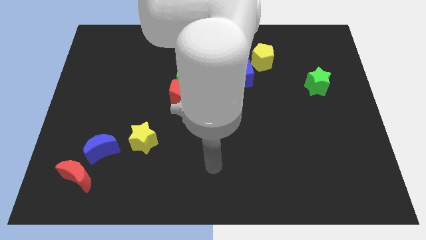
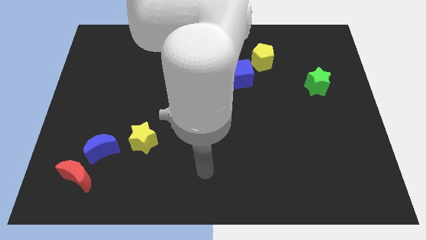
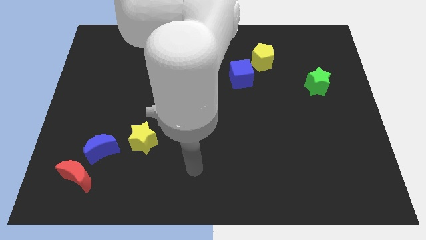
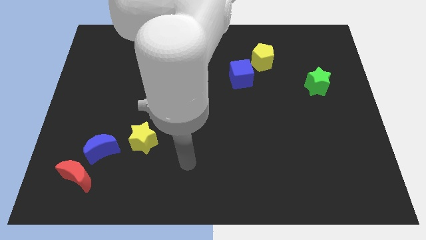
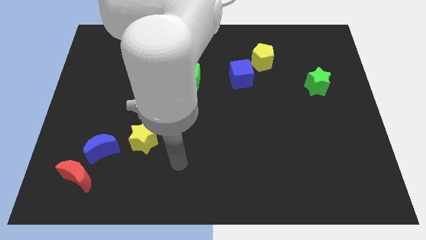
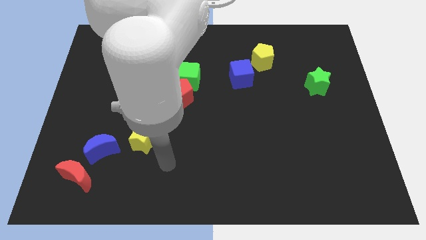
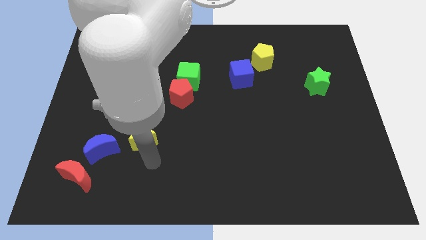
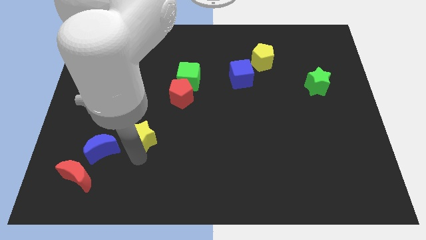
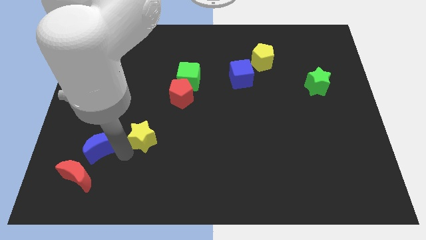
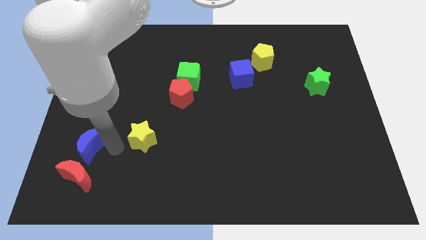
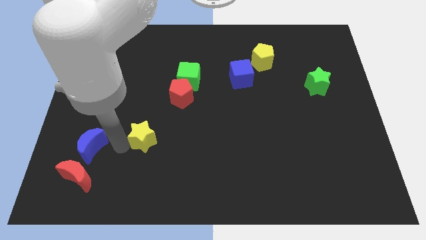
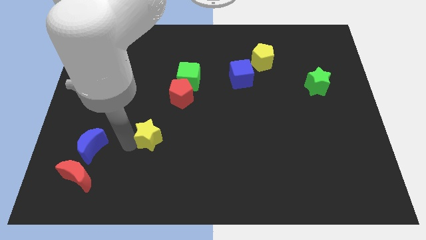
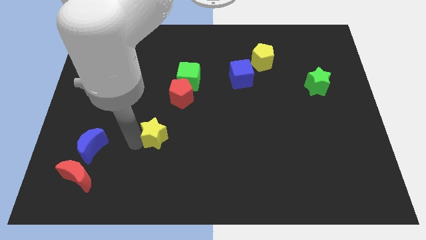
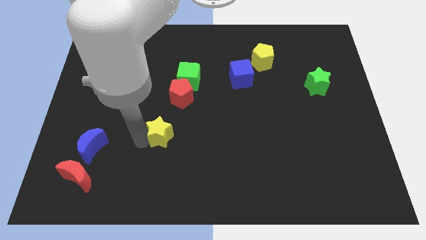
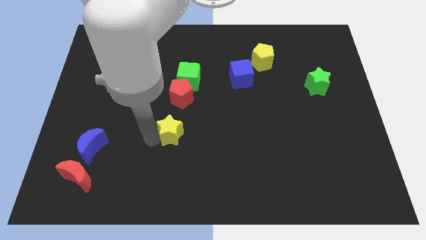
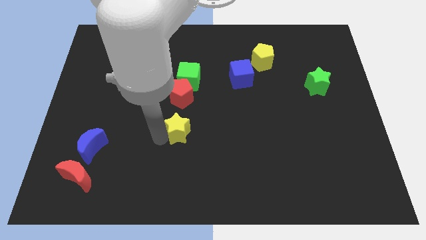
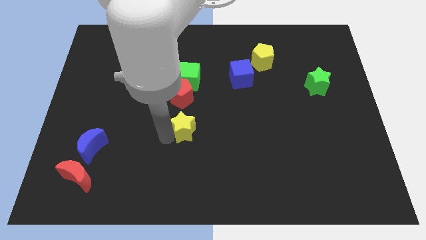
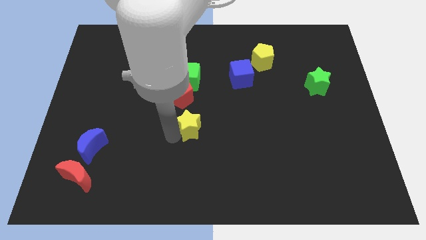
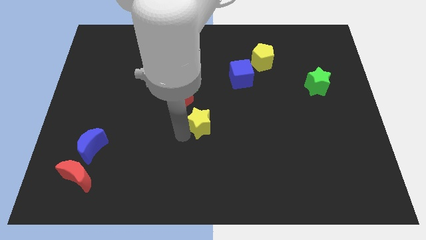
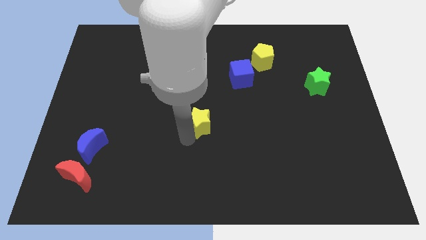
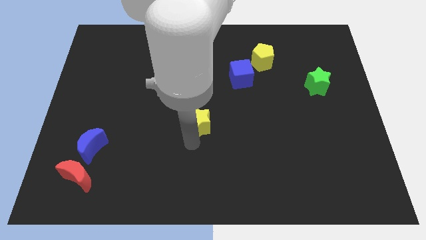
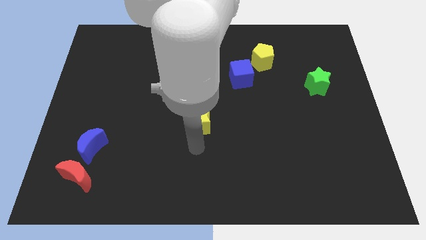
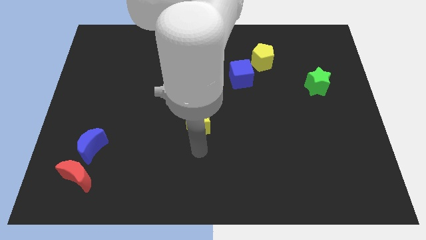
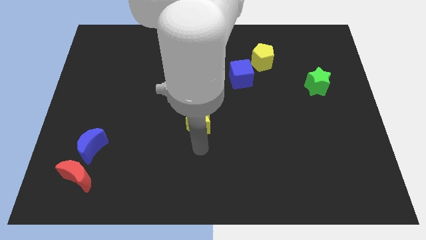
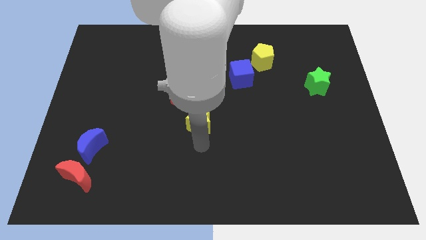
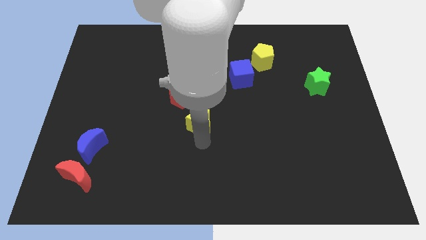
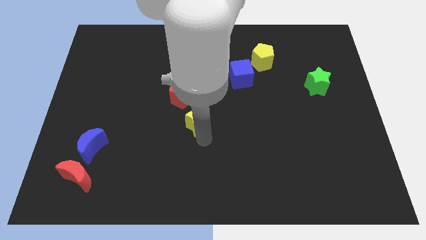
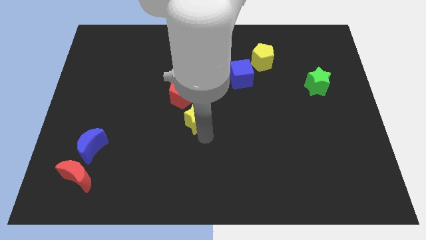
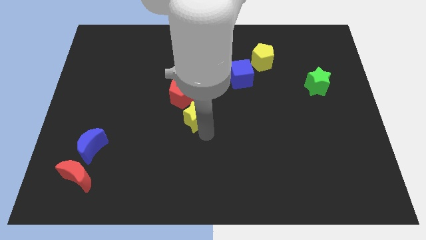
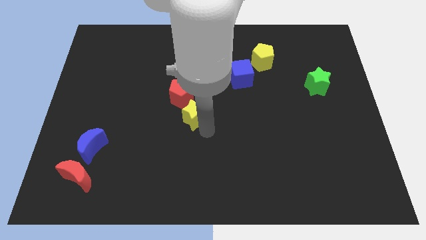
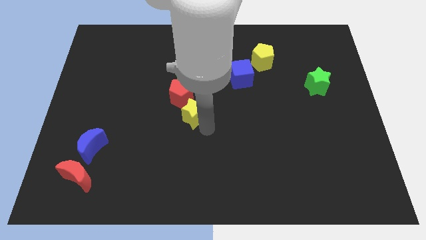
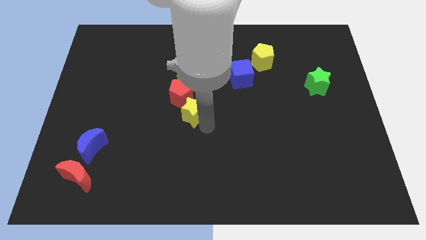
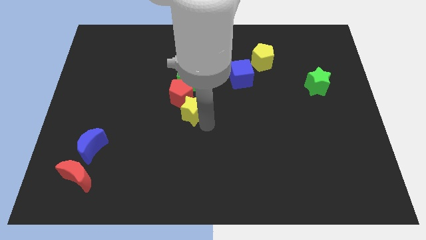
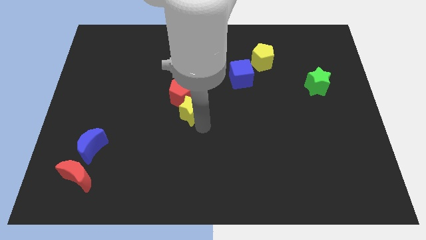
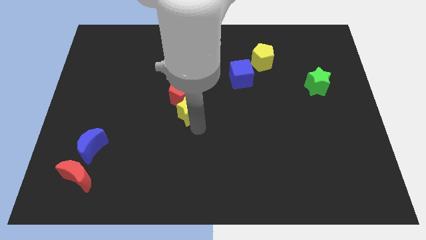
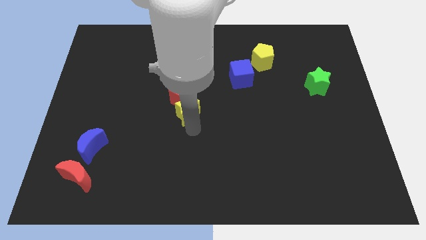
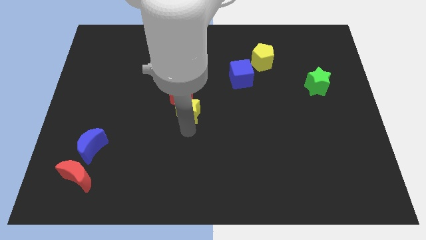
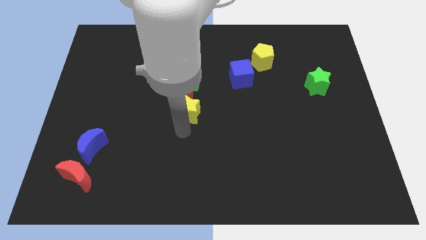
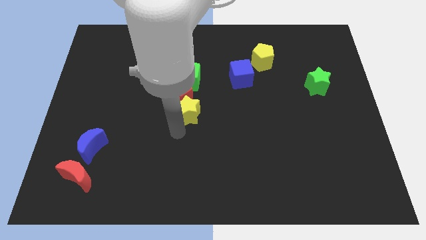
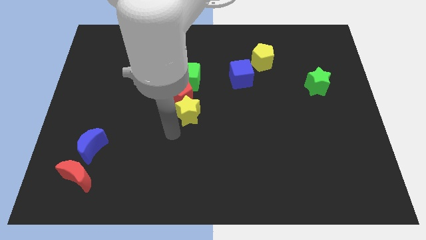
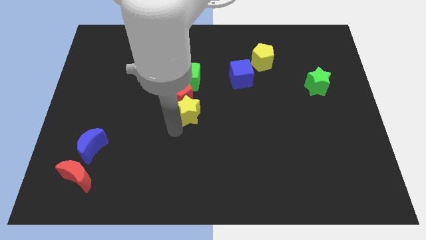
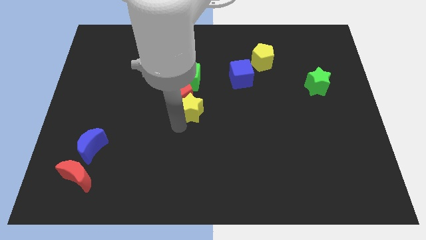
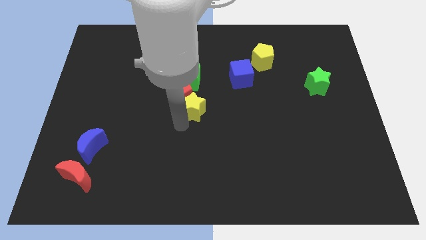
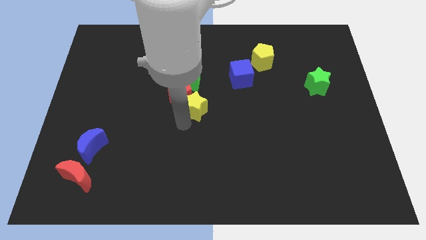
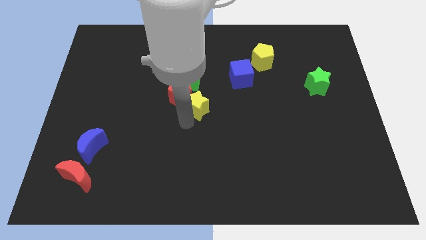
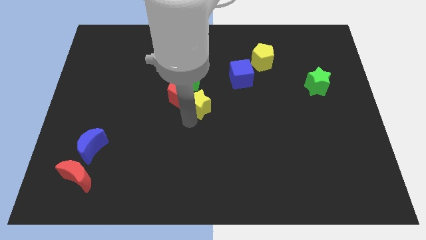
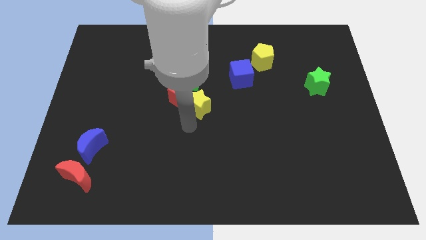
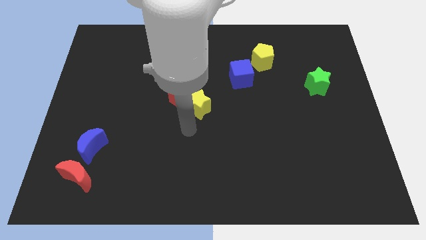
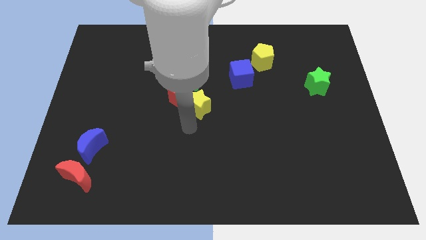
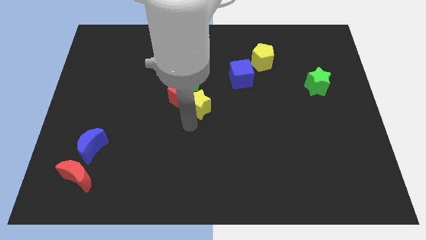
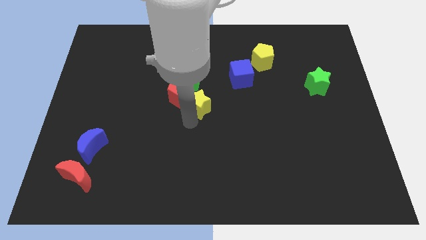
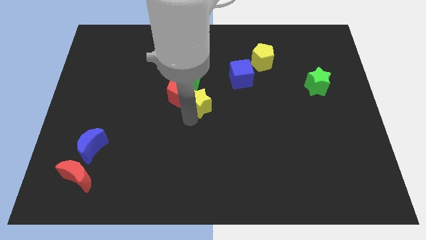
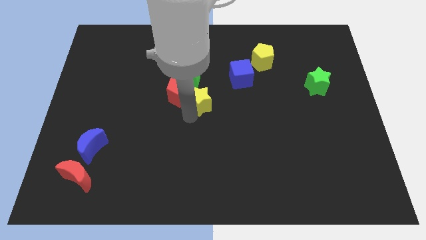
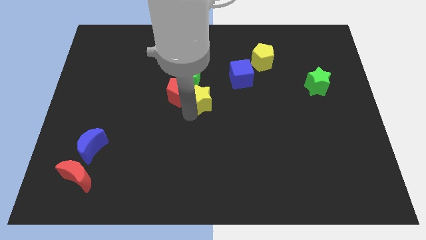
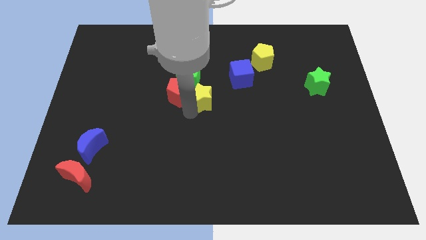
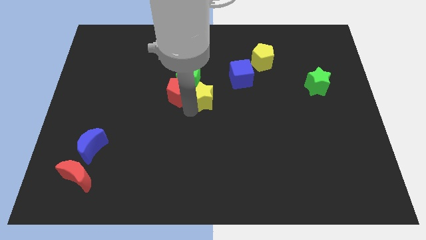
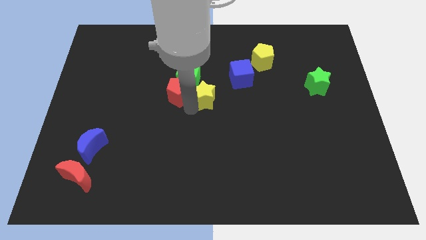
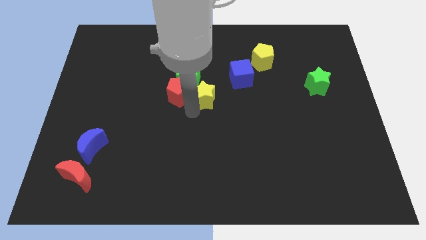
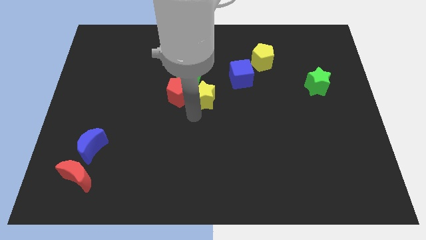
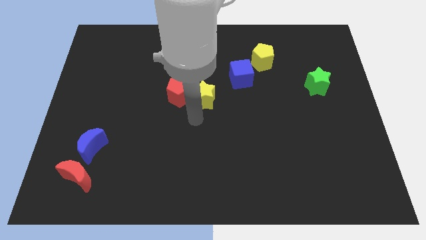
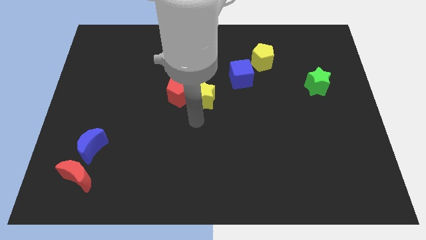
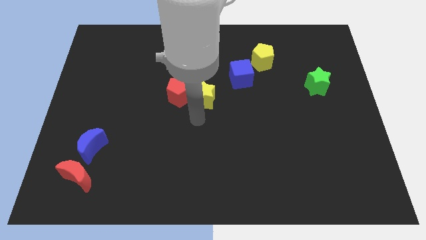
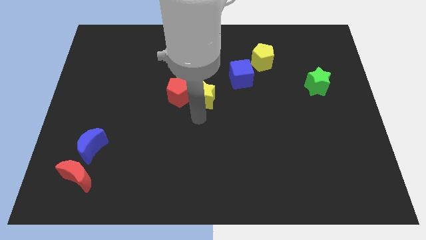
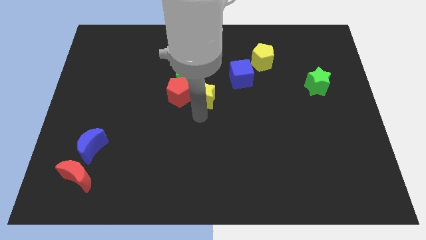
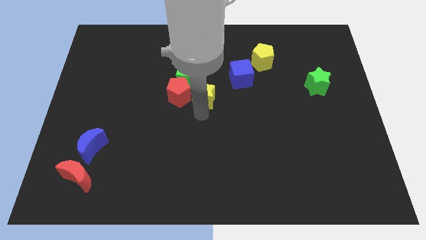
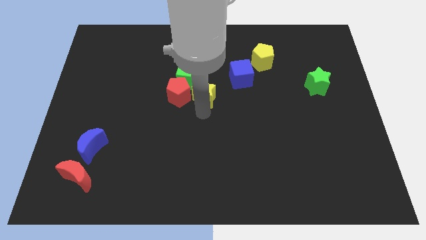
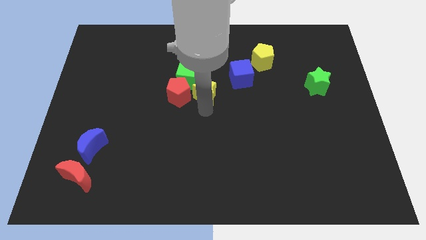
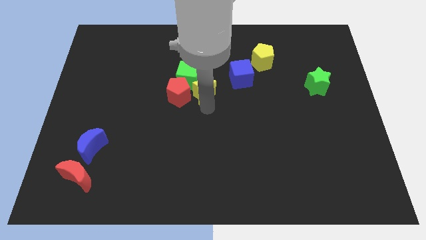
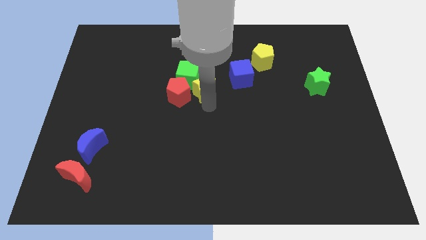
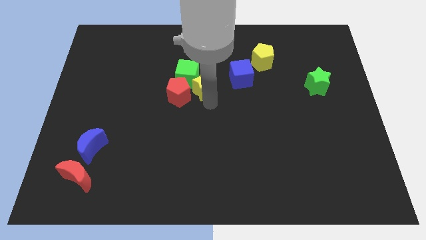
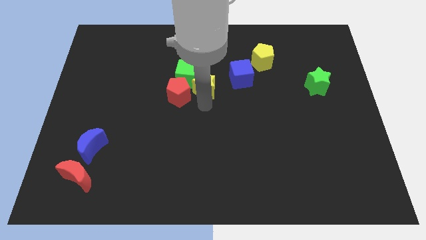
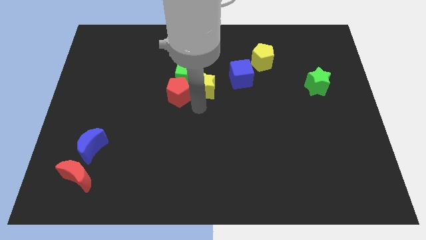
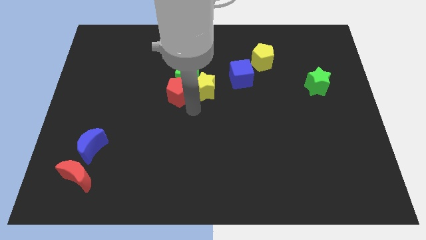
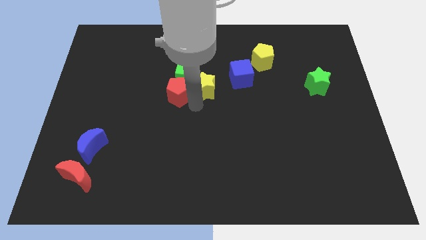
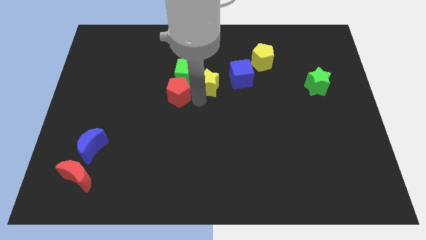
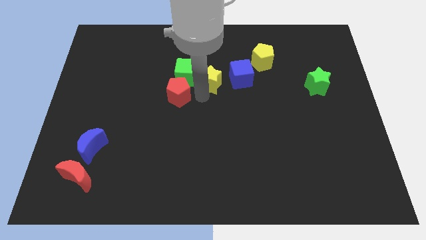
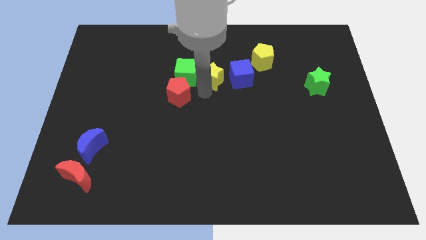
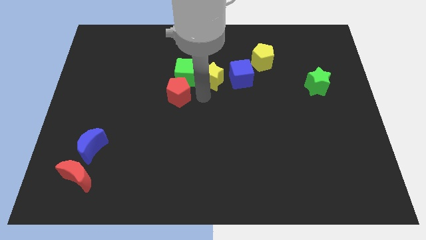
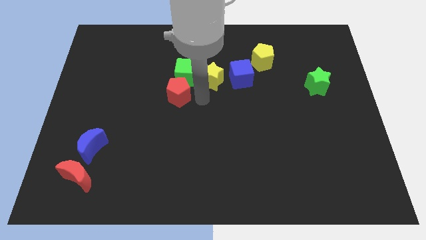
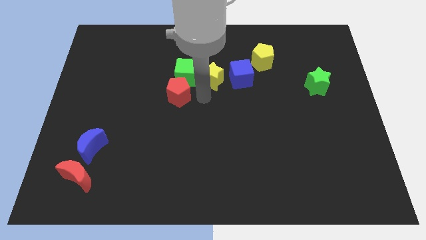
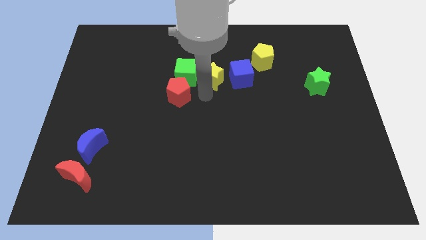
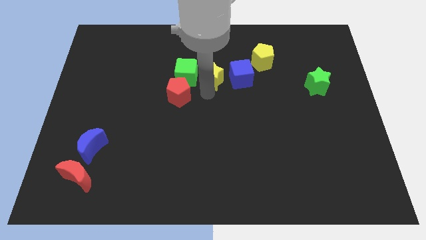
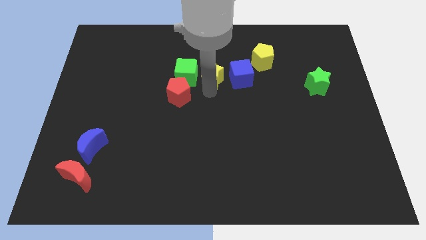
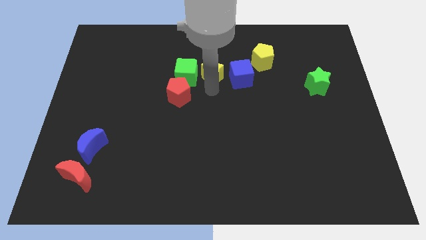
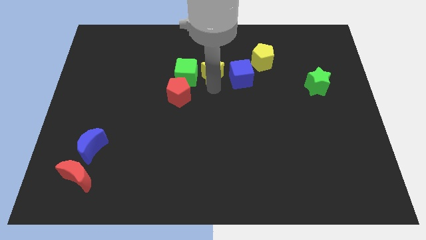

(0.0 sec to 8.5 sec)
put the yellow star to the top left side of the blue cube
